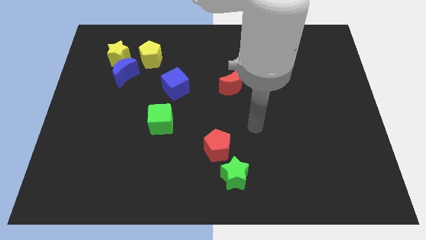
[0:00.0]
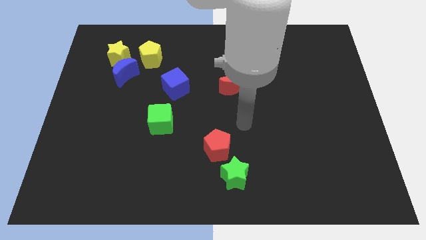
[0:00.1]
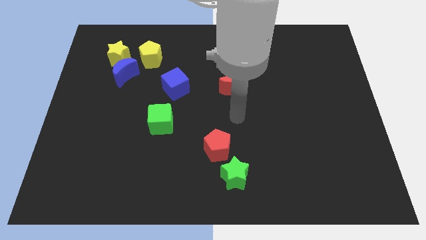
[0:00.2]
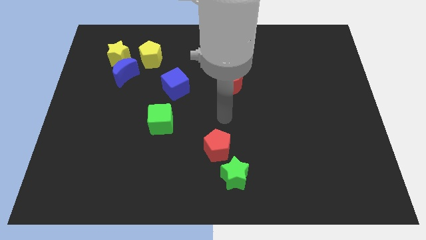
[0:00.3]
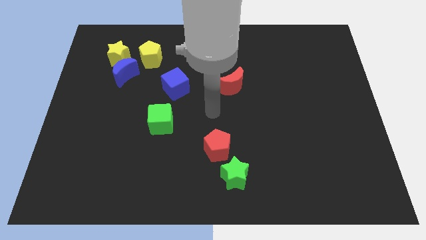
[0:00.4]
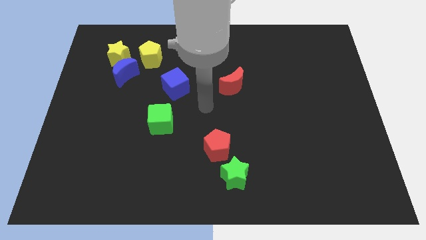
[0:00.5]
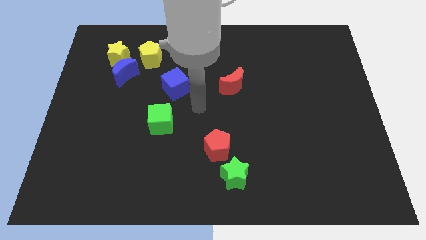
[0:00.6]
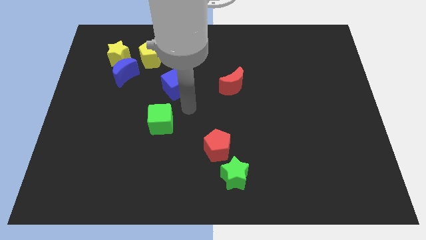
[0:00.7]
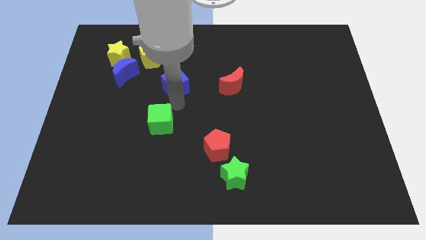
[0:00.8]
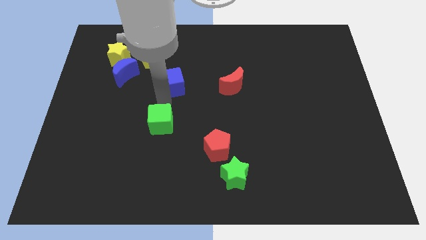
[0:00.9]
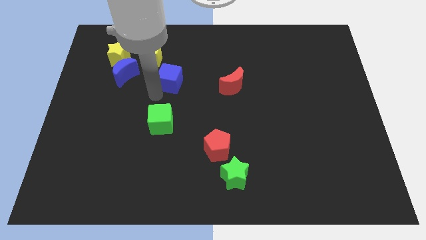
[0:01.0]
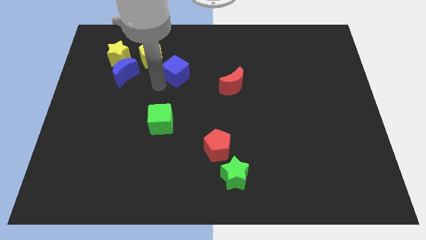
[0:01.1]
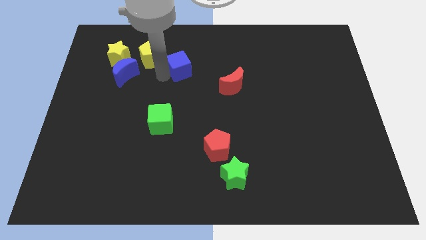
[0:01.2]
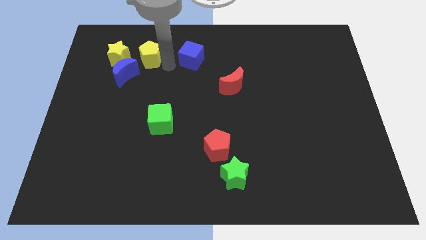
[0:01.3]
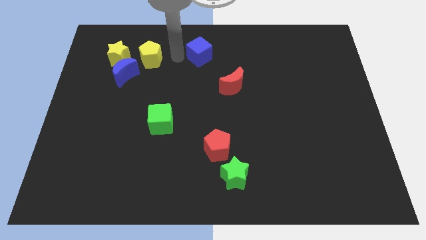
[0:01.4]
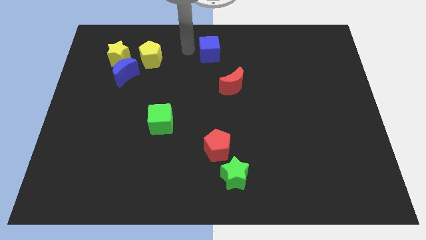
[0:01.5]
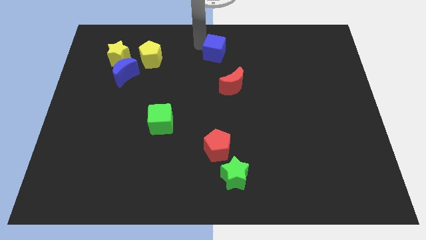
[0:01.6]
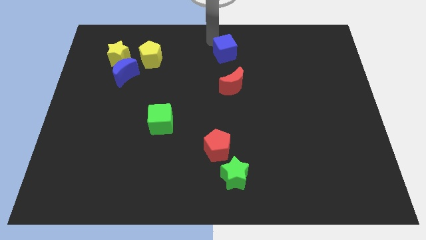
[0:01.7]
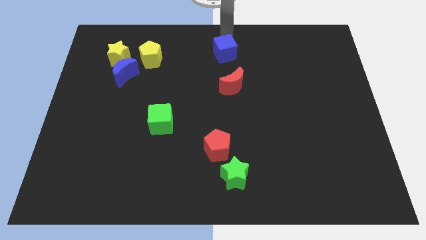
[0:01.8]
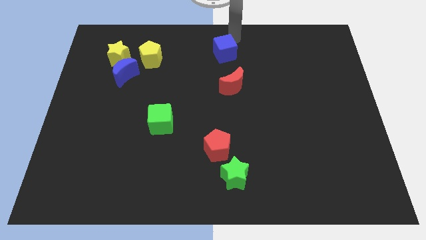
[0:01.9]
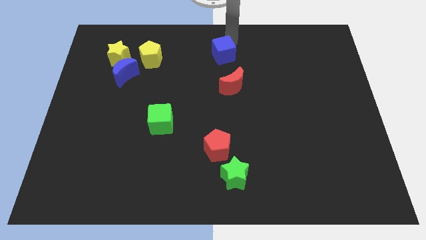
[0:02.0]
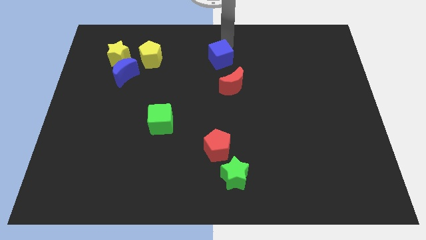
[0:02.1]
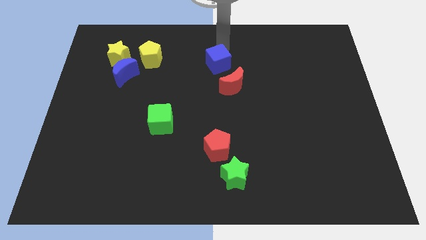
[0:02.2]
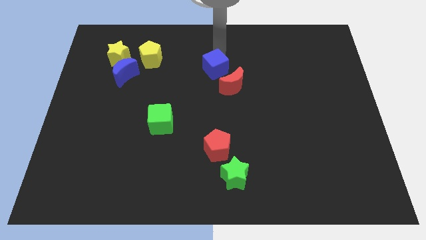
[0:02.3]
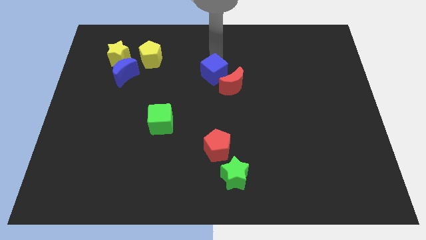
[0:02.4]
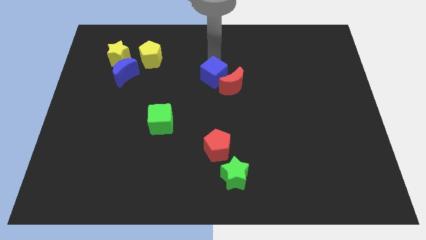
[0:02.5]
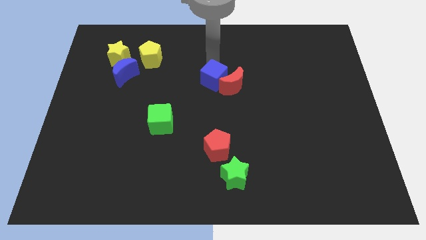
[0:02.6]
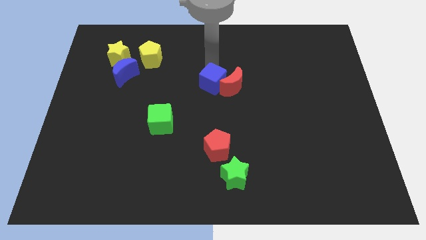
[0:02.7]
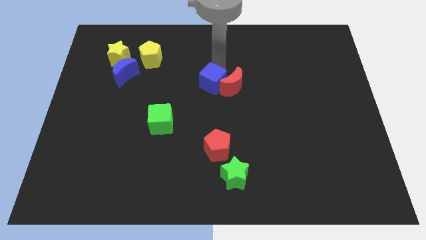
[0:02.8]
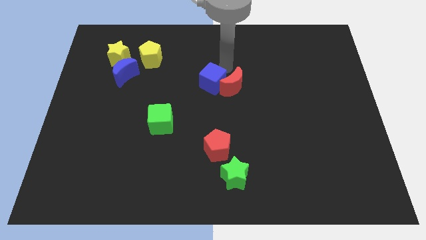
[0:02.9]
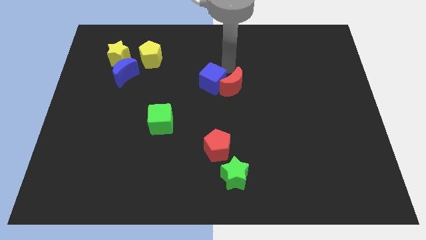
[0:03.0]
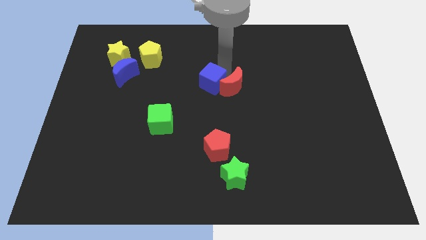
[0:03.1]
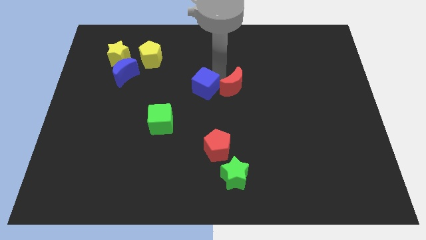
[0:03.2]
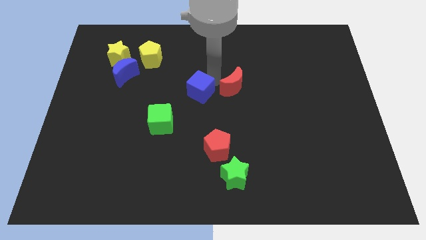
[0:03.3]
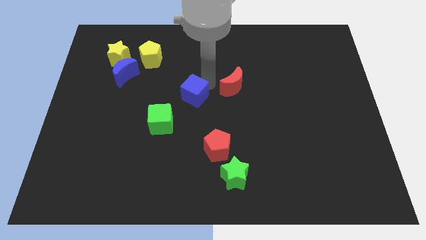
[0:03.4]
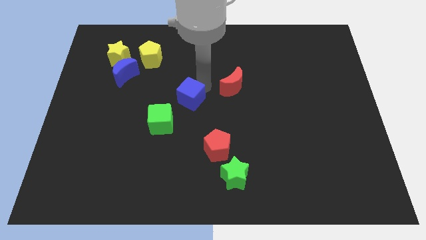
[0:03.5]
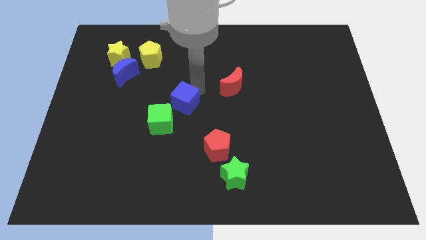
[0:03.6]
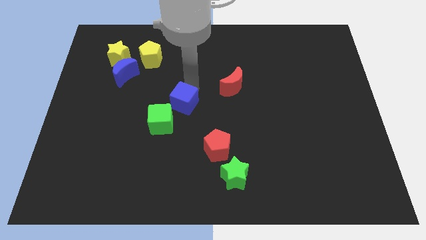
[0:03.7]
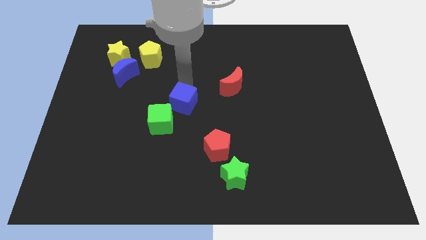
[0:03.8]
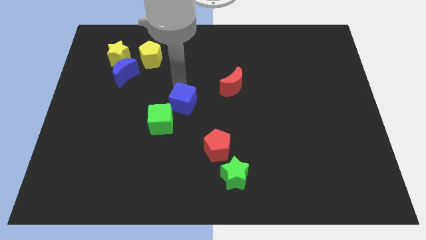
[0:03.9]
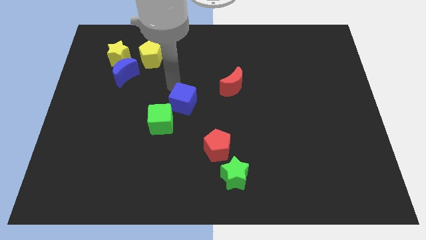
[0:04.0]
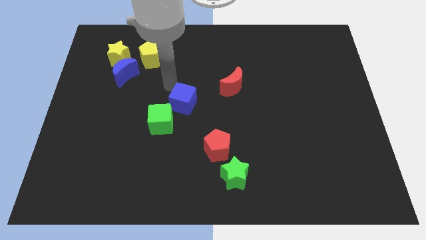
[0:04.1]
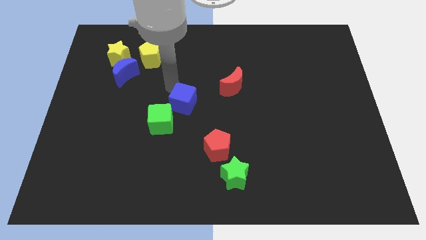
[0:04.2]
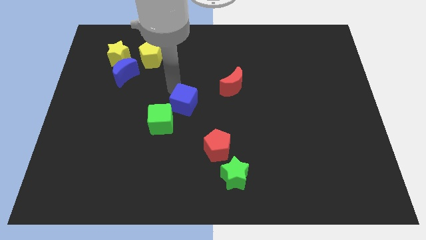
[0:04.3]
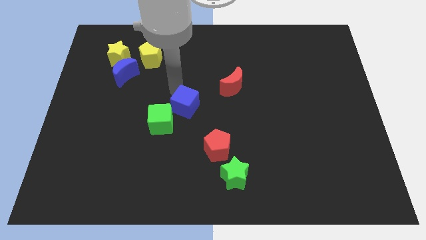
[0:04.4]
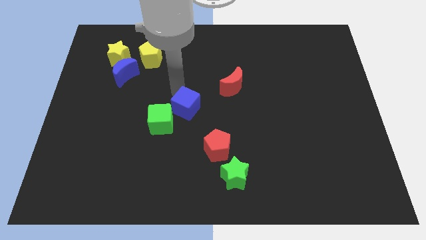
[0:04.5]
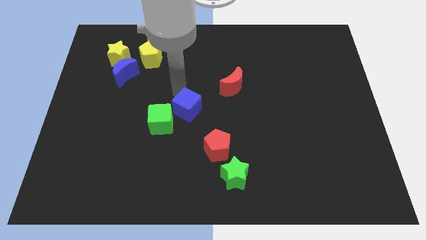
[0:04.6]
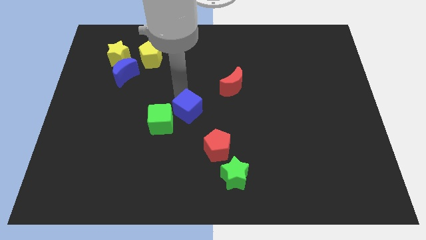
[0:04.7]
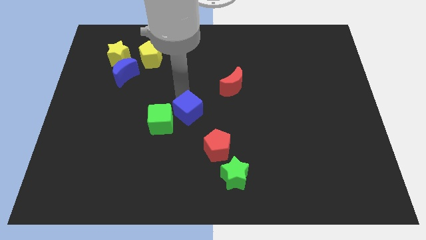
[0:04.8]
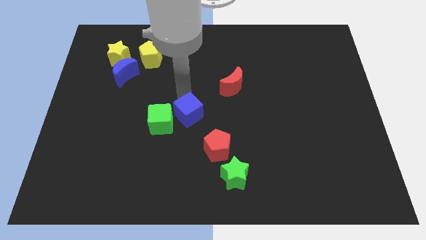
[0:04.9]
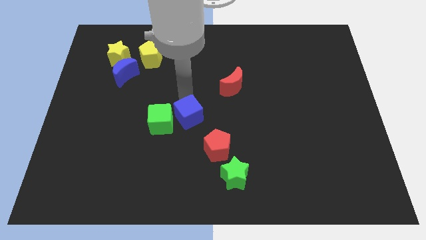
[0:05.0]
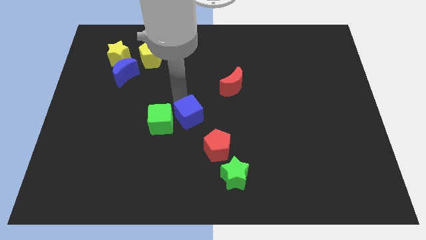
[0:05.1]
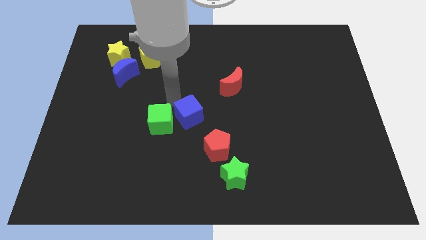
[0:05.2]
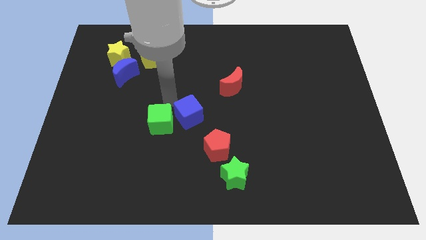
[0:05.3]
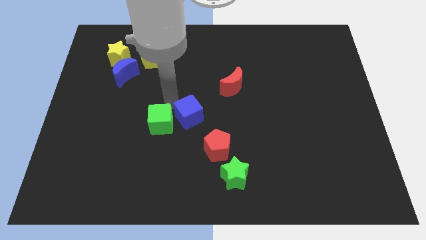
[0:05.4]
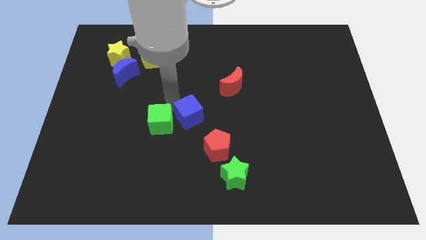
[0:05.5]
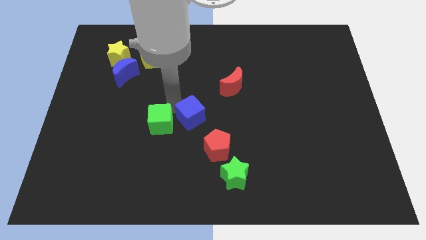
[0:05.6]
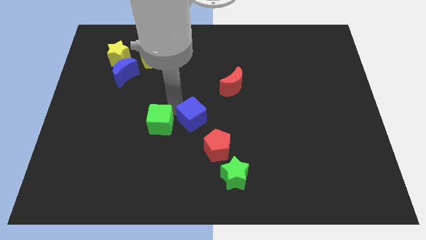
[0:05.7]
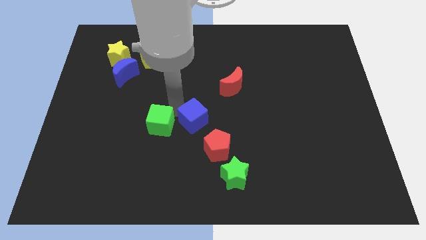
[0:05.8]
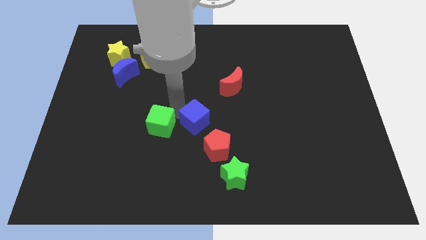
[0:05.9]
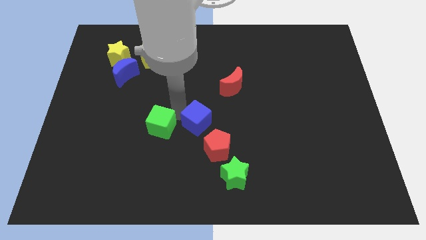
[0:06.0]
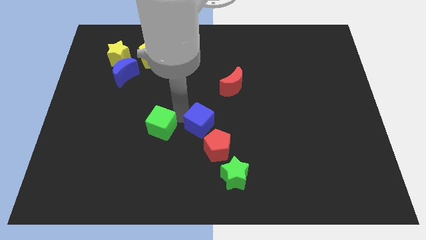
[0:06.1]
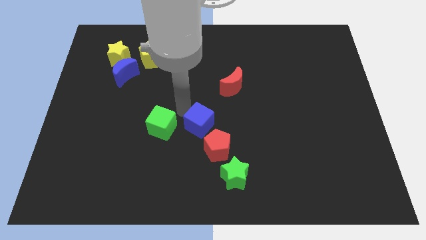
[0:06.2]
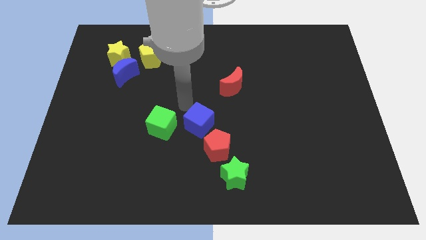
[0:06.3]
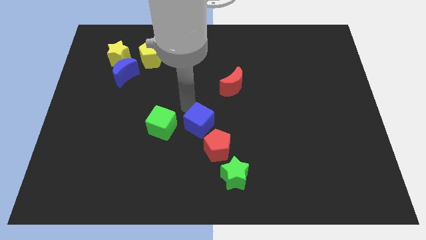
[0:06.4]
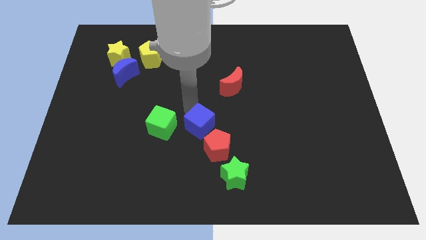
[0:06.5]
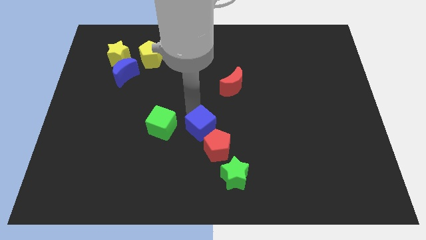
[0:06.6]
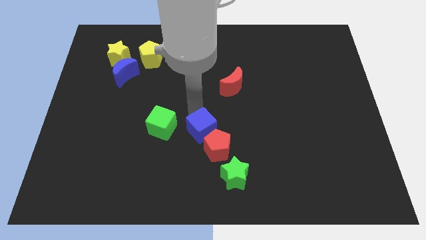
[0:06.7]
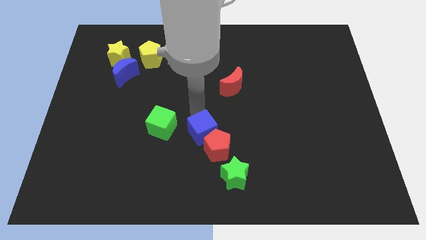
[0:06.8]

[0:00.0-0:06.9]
push the blue cube next to the red pentagon
